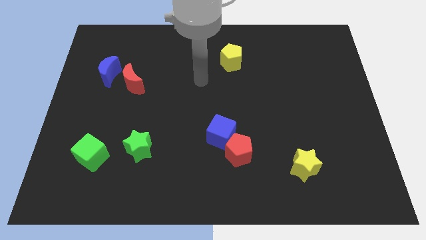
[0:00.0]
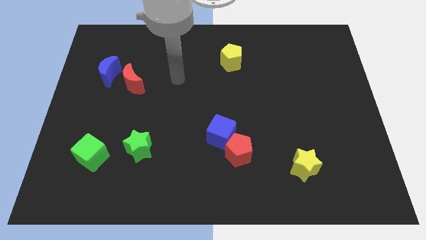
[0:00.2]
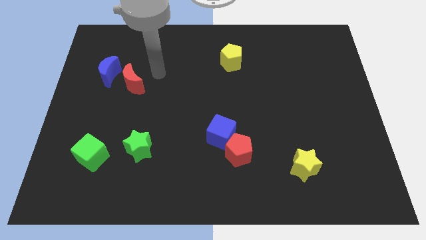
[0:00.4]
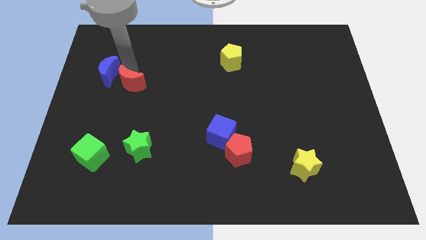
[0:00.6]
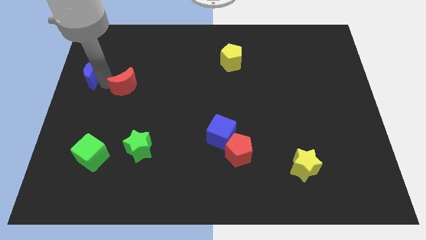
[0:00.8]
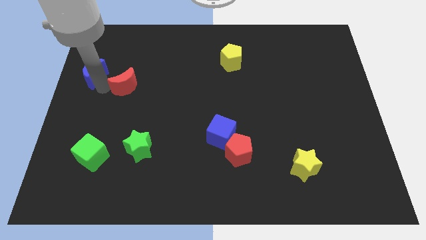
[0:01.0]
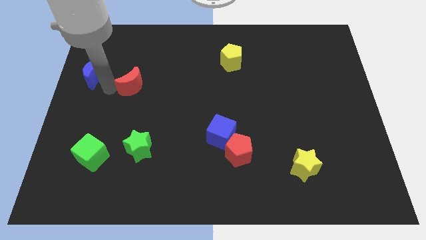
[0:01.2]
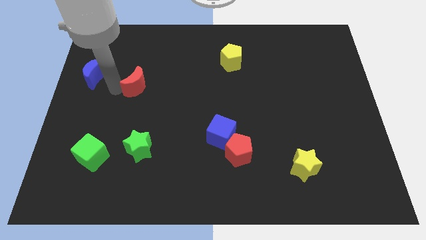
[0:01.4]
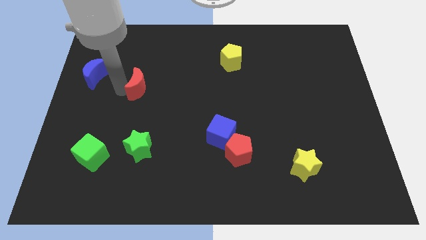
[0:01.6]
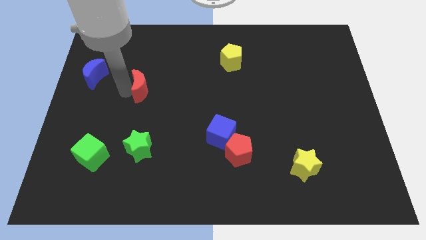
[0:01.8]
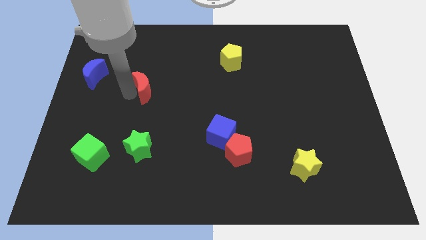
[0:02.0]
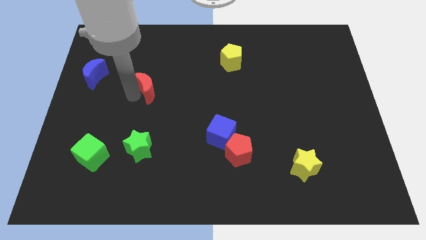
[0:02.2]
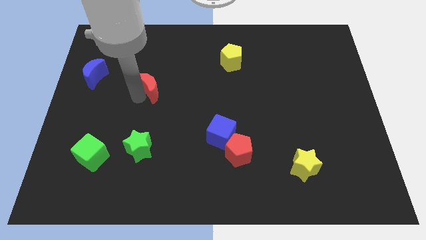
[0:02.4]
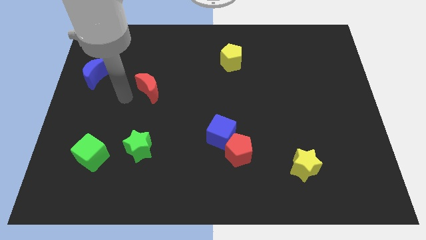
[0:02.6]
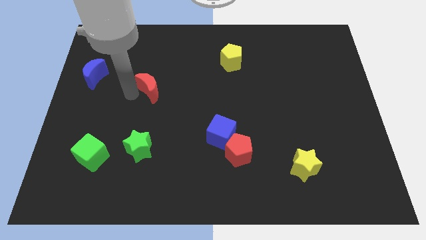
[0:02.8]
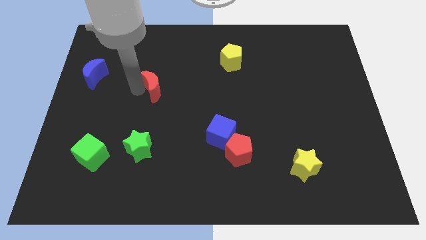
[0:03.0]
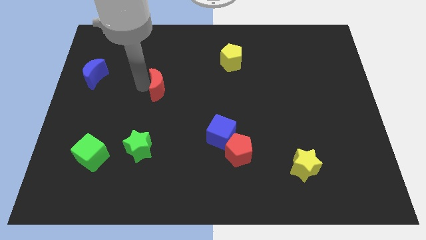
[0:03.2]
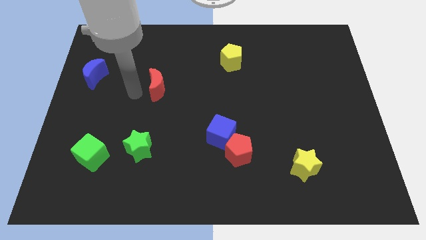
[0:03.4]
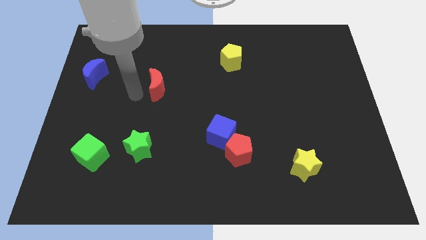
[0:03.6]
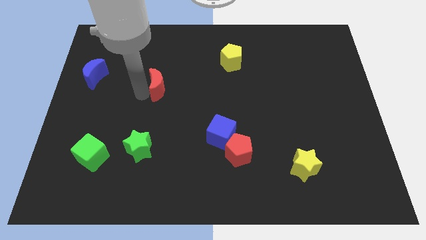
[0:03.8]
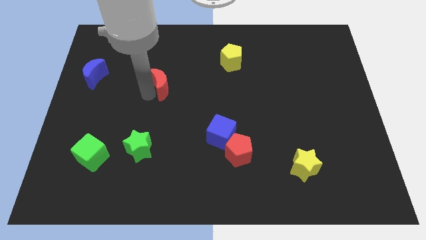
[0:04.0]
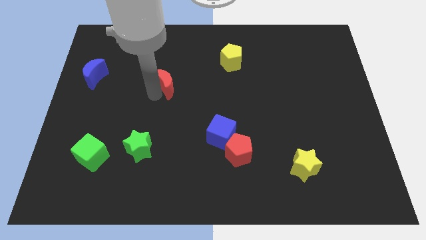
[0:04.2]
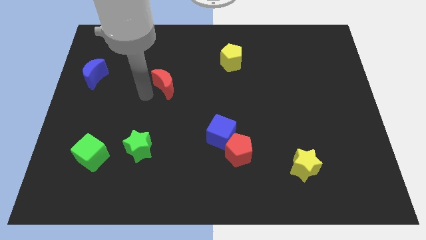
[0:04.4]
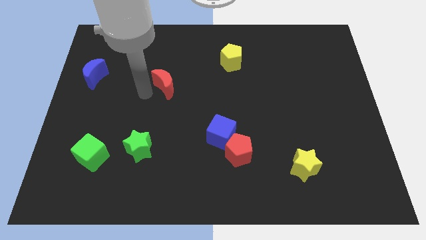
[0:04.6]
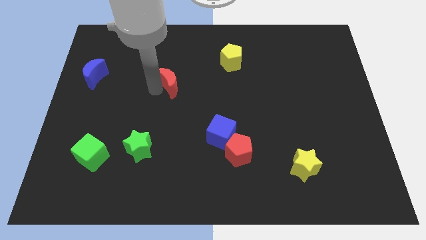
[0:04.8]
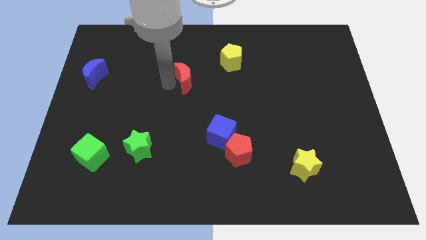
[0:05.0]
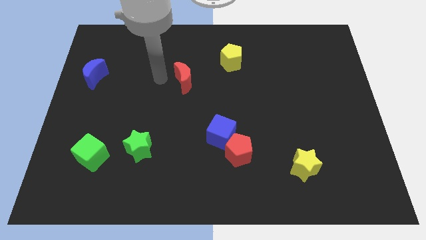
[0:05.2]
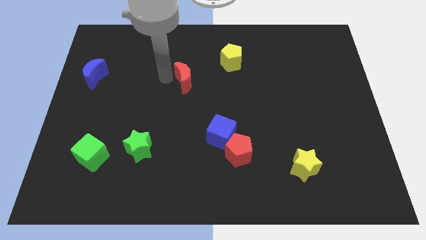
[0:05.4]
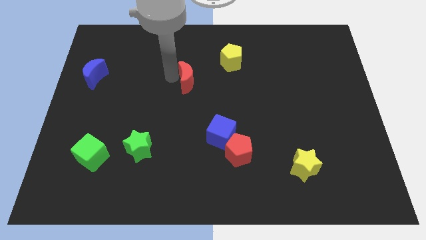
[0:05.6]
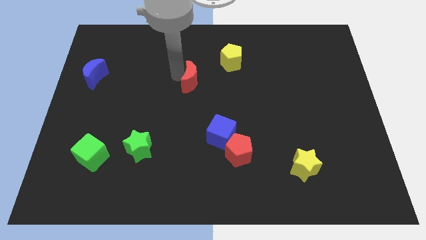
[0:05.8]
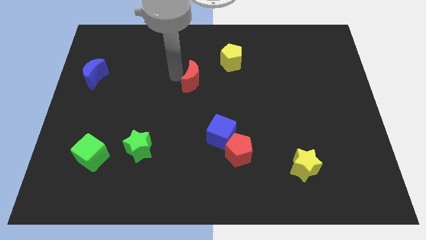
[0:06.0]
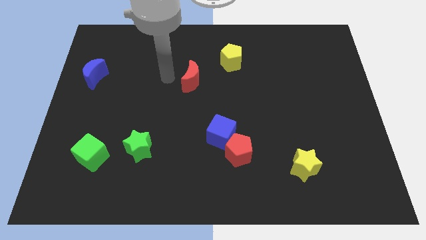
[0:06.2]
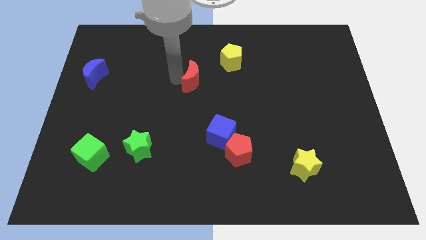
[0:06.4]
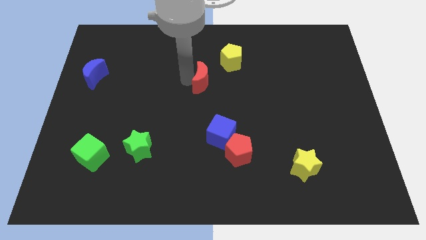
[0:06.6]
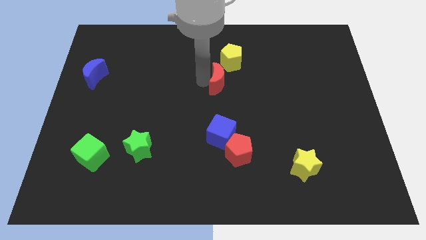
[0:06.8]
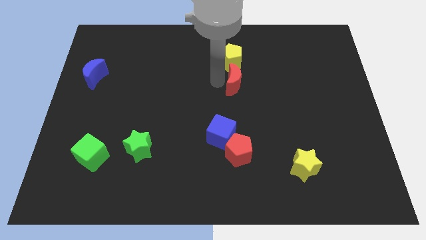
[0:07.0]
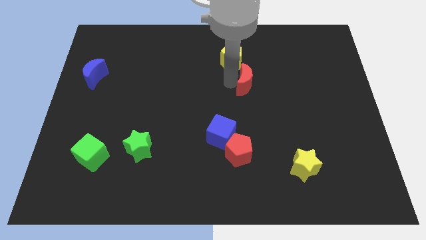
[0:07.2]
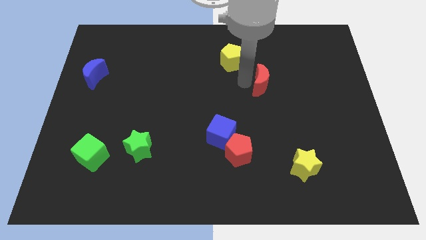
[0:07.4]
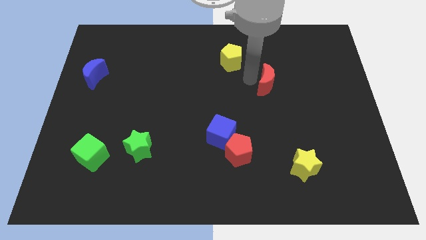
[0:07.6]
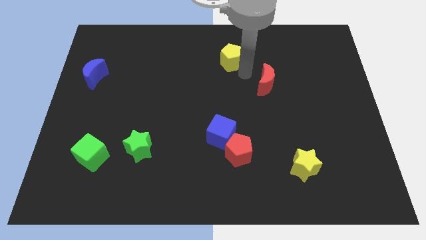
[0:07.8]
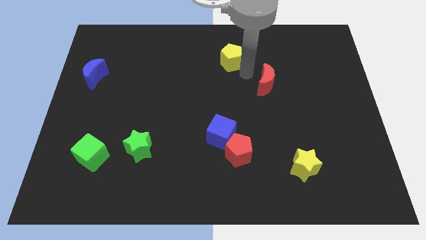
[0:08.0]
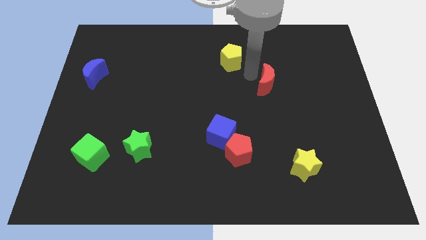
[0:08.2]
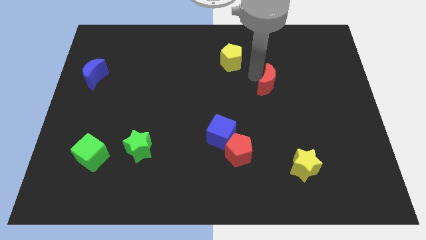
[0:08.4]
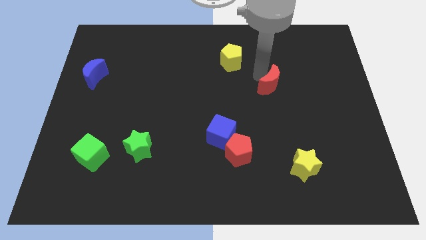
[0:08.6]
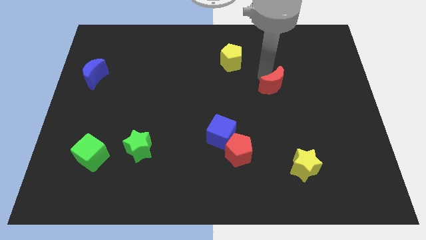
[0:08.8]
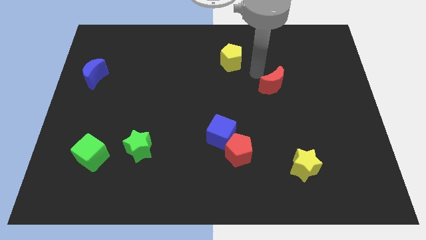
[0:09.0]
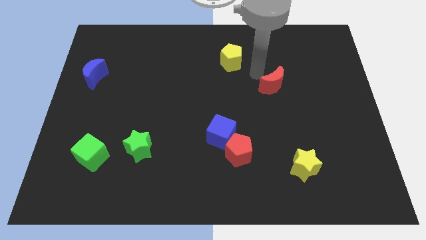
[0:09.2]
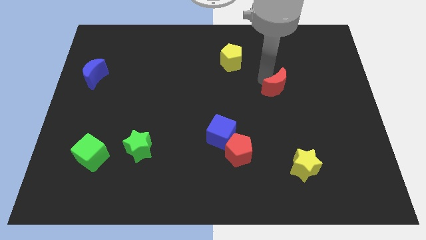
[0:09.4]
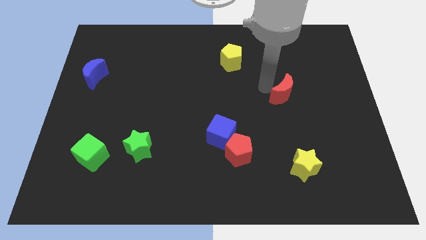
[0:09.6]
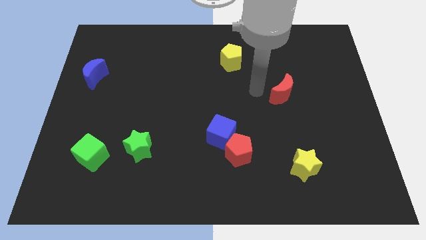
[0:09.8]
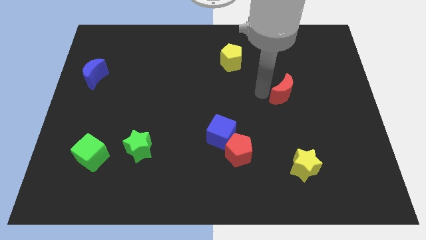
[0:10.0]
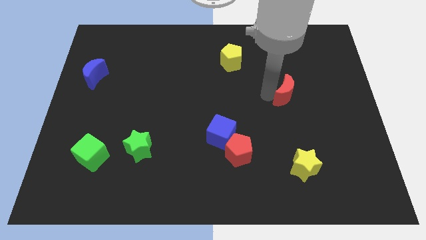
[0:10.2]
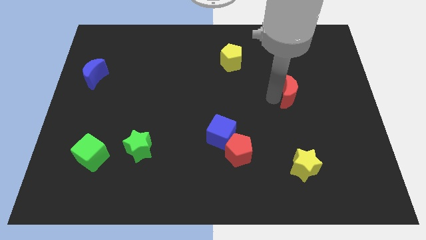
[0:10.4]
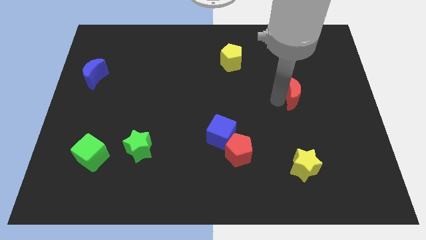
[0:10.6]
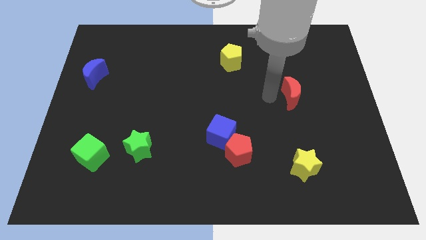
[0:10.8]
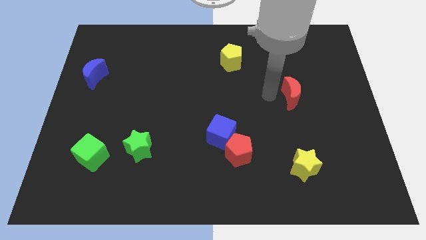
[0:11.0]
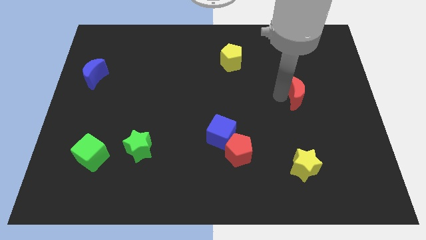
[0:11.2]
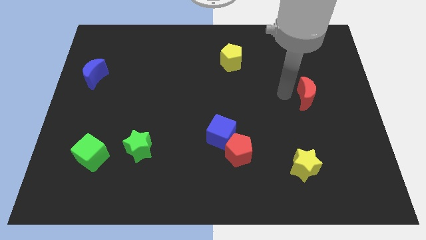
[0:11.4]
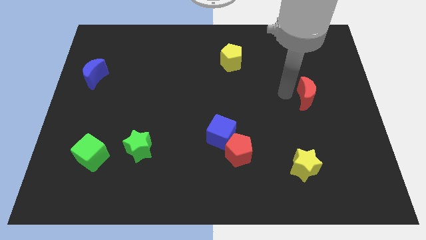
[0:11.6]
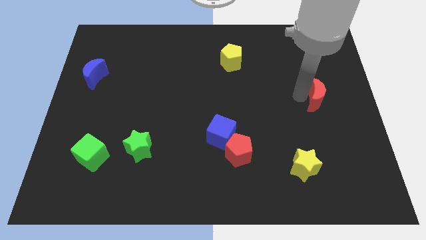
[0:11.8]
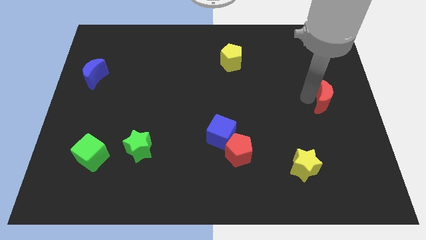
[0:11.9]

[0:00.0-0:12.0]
put the red moon to the right side of the board

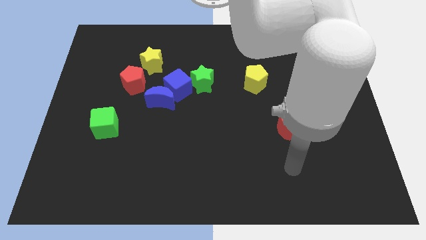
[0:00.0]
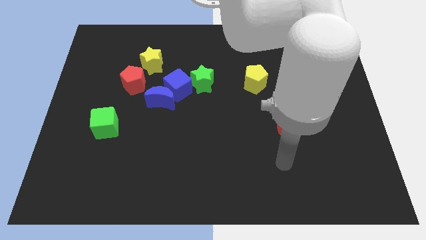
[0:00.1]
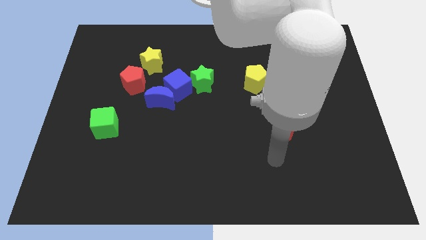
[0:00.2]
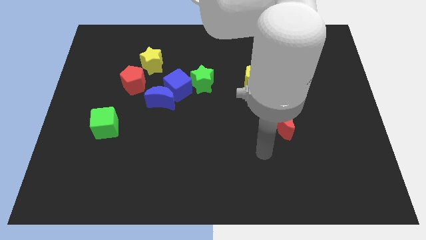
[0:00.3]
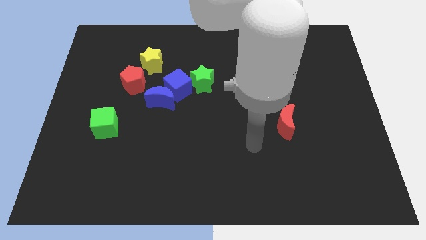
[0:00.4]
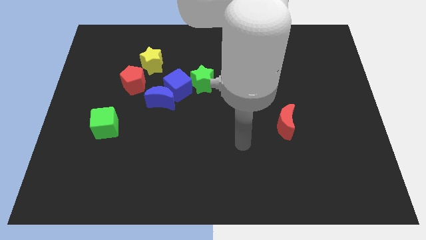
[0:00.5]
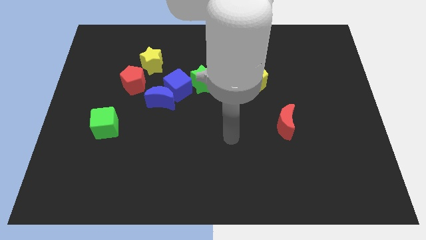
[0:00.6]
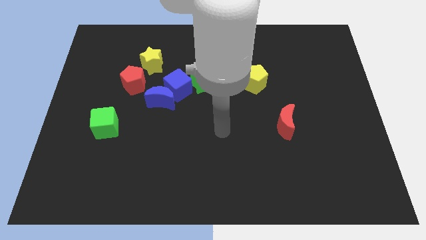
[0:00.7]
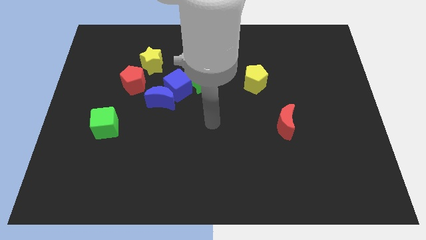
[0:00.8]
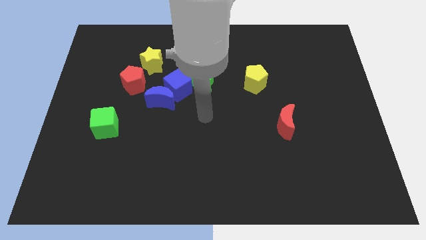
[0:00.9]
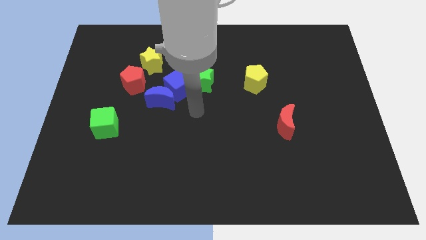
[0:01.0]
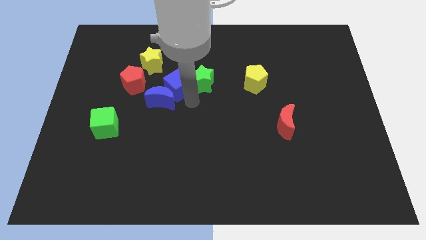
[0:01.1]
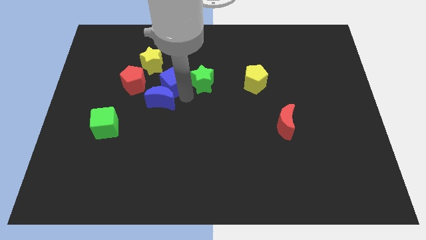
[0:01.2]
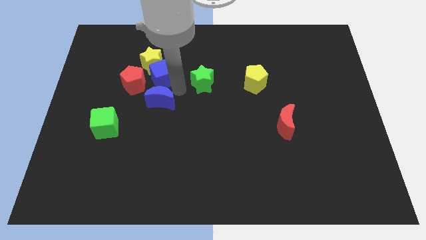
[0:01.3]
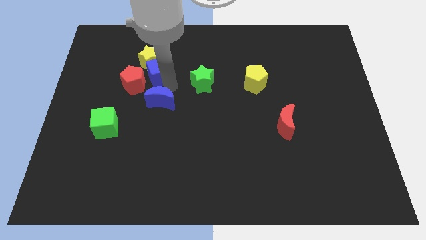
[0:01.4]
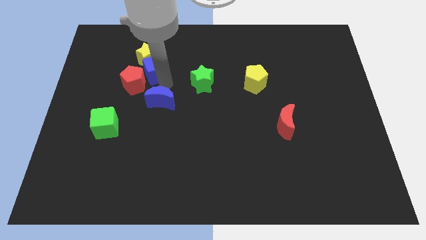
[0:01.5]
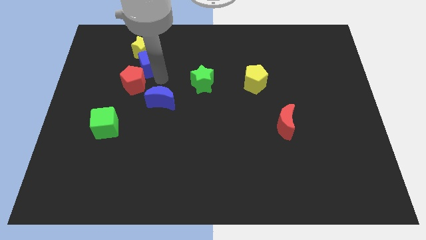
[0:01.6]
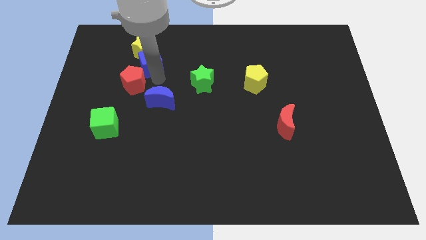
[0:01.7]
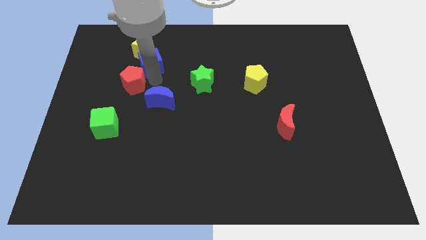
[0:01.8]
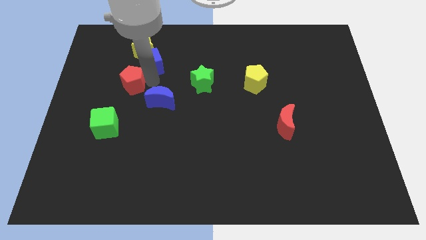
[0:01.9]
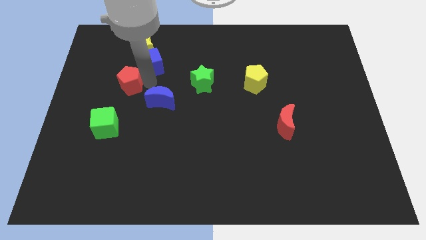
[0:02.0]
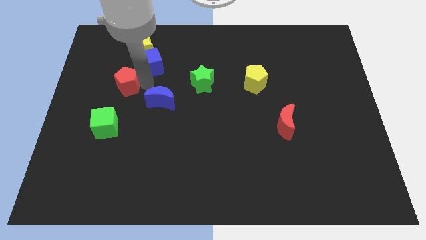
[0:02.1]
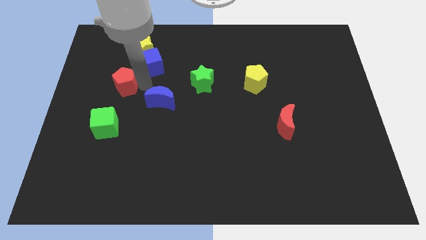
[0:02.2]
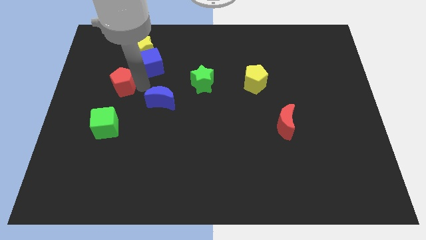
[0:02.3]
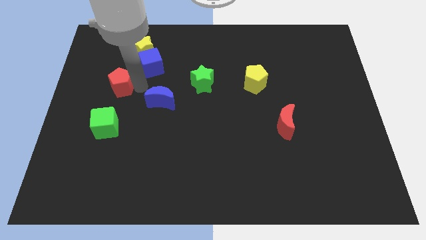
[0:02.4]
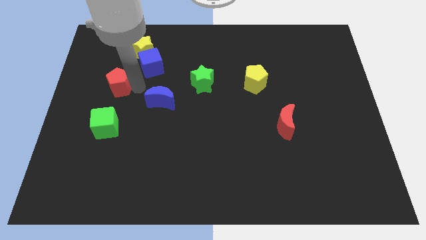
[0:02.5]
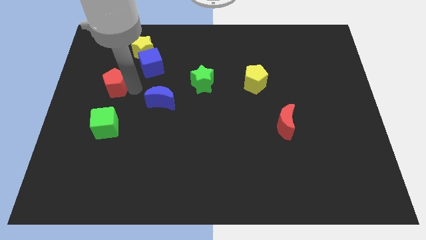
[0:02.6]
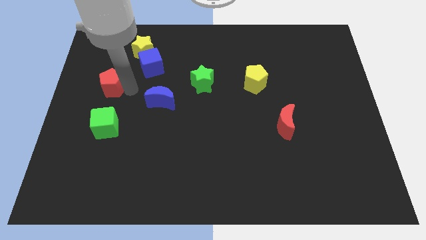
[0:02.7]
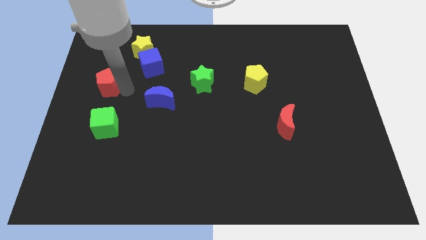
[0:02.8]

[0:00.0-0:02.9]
move the red pentagon to the left side
